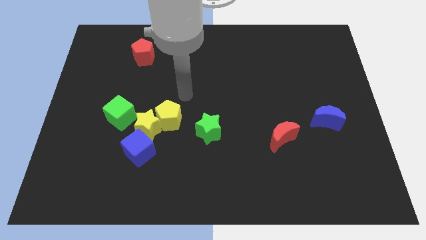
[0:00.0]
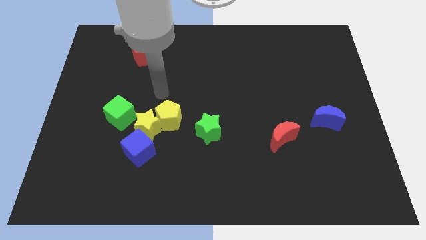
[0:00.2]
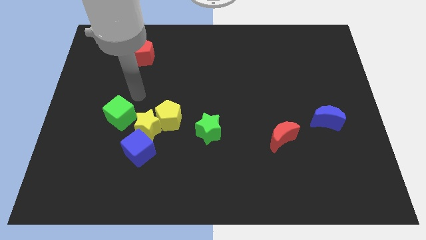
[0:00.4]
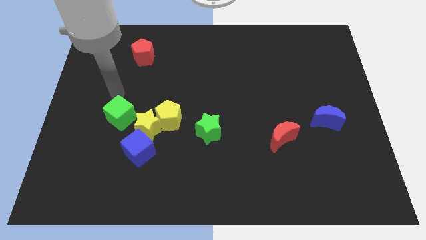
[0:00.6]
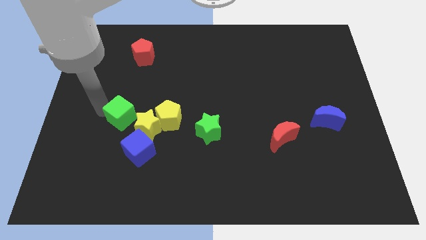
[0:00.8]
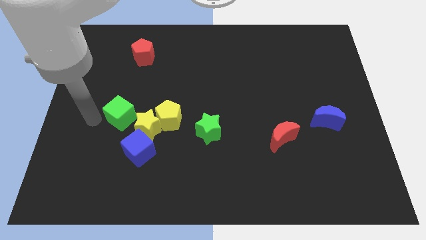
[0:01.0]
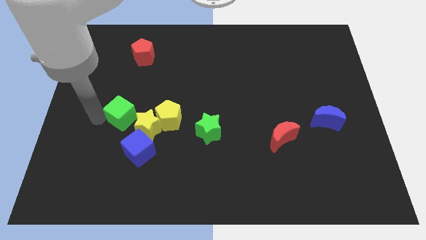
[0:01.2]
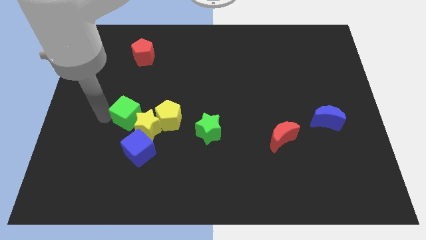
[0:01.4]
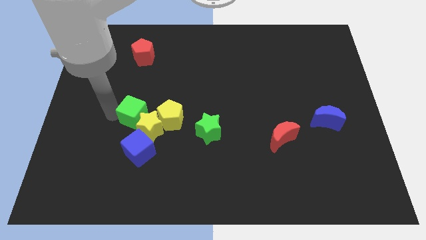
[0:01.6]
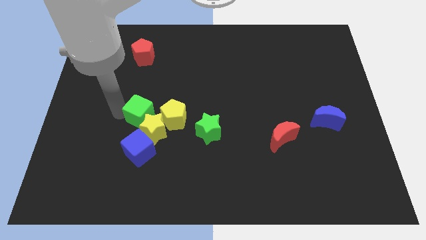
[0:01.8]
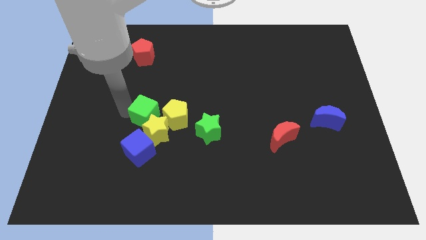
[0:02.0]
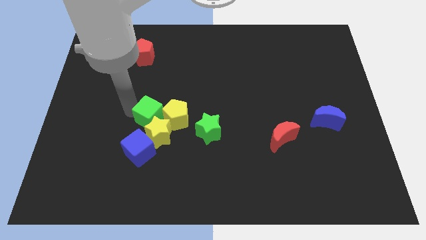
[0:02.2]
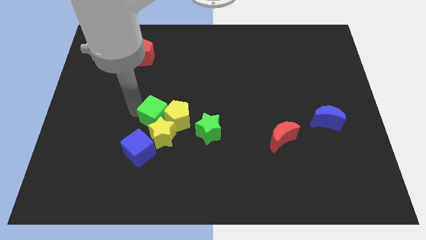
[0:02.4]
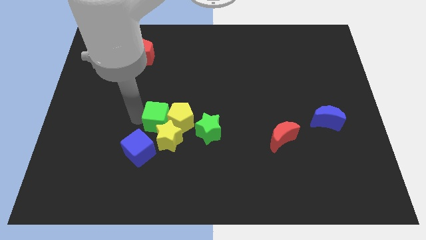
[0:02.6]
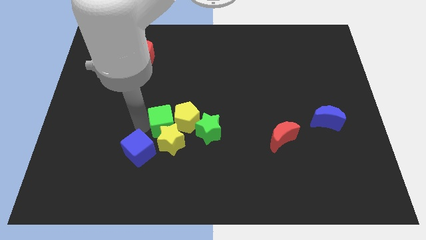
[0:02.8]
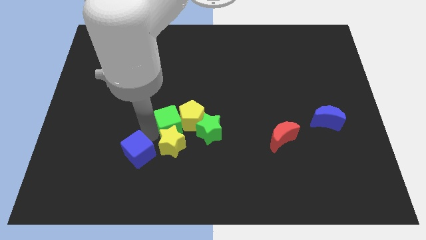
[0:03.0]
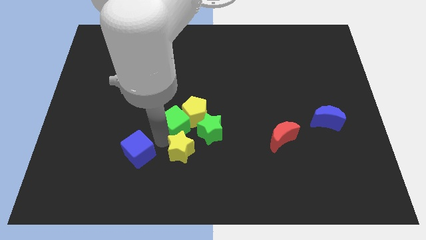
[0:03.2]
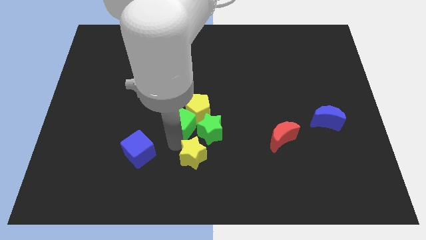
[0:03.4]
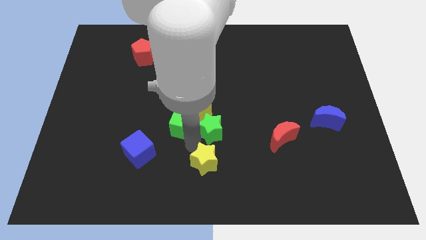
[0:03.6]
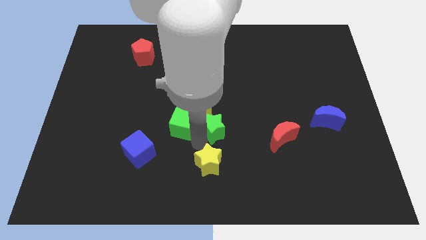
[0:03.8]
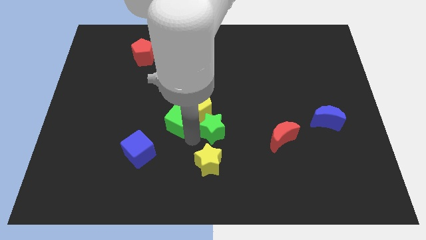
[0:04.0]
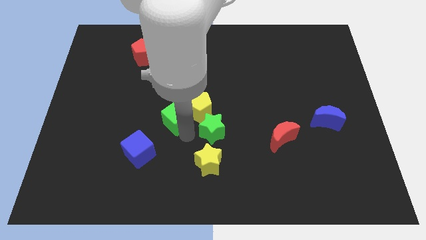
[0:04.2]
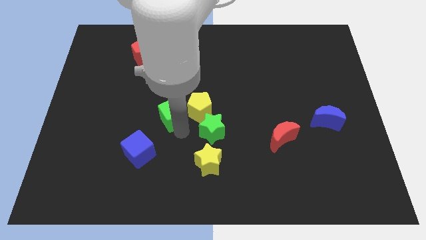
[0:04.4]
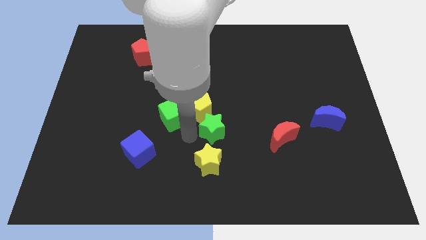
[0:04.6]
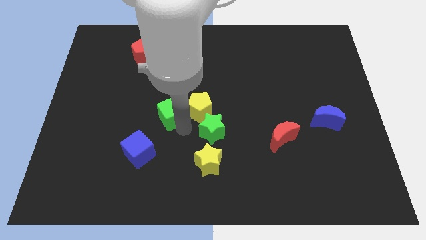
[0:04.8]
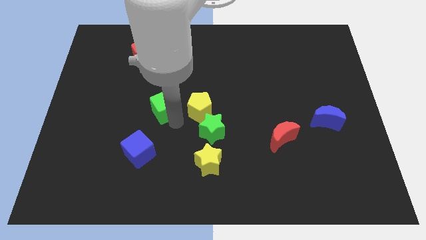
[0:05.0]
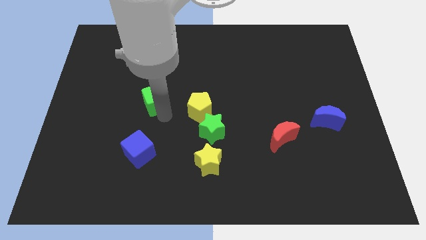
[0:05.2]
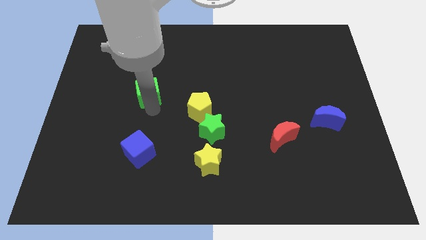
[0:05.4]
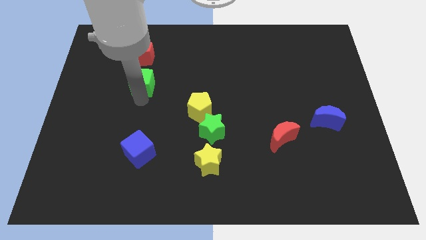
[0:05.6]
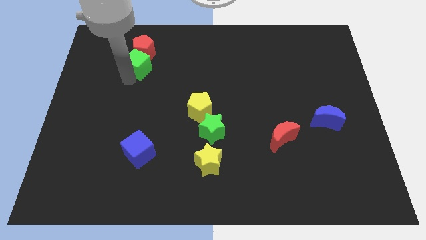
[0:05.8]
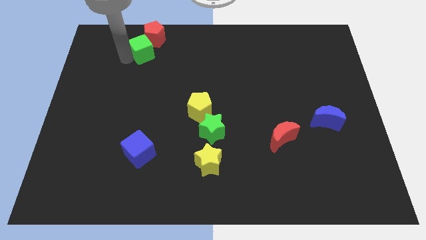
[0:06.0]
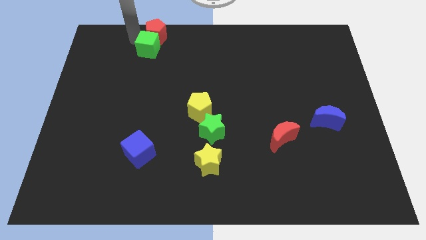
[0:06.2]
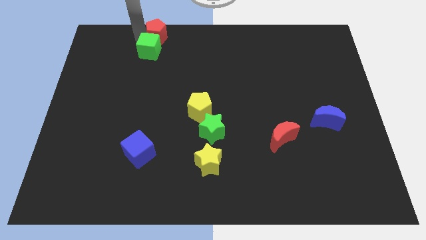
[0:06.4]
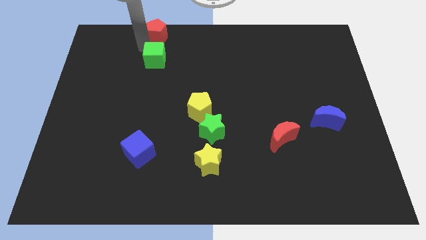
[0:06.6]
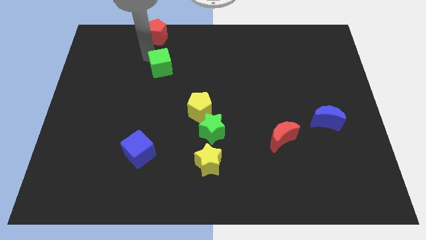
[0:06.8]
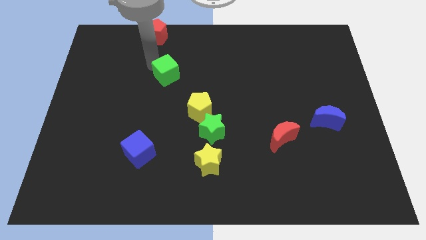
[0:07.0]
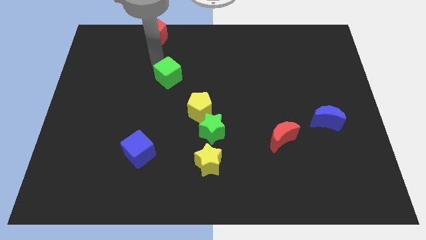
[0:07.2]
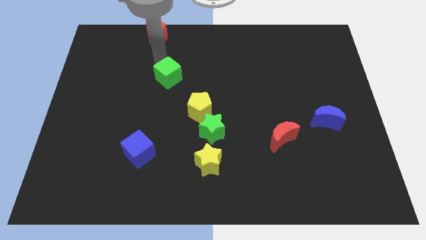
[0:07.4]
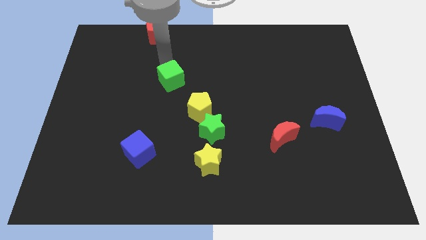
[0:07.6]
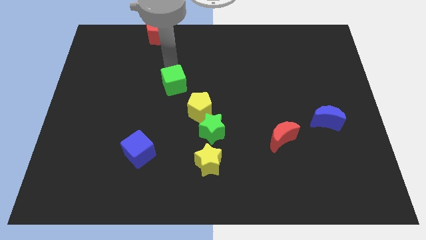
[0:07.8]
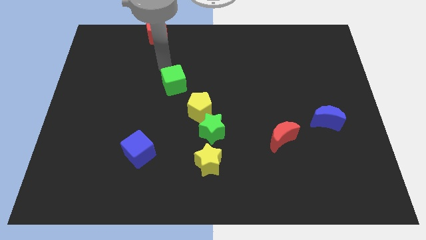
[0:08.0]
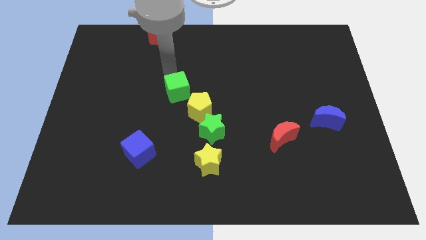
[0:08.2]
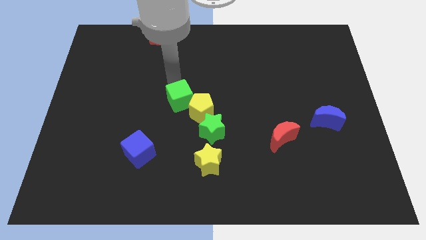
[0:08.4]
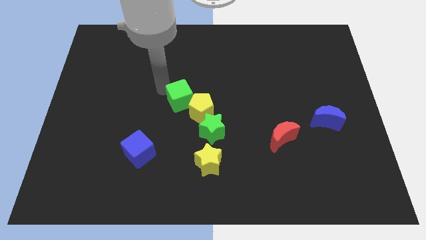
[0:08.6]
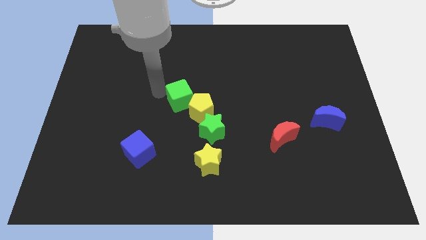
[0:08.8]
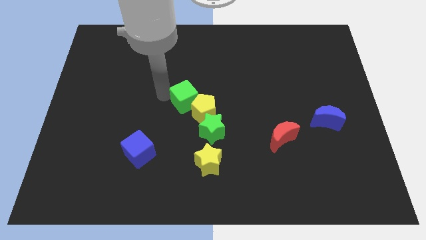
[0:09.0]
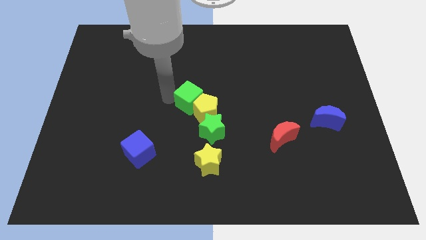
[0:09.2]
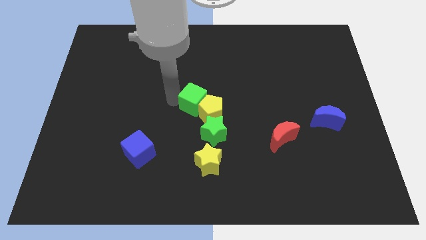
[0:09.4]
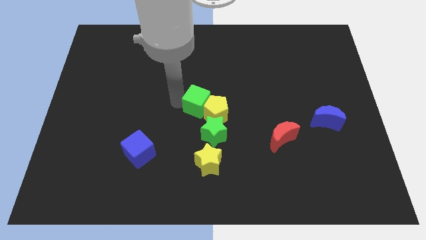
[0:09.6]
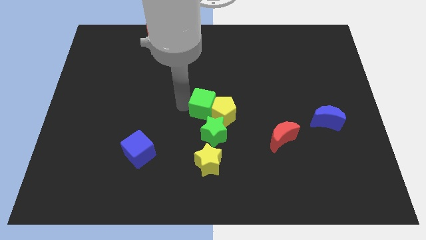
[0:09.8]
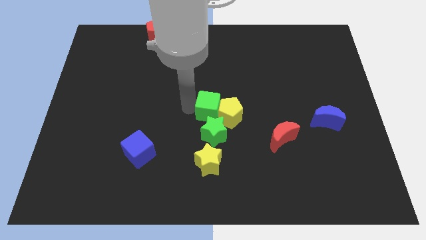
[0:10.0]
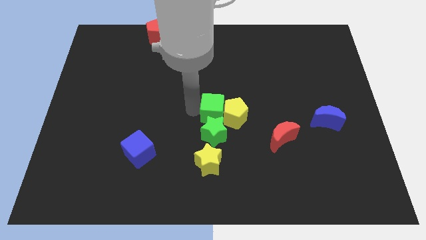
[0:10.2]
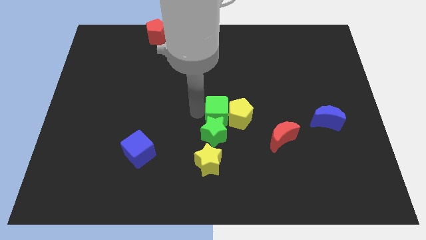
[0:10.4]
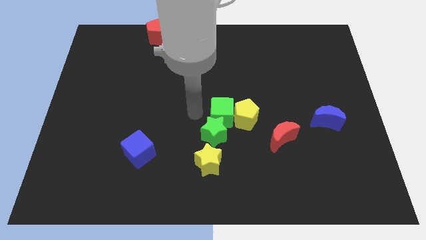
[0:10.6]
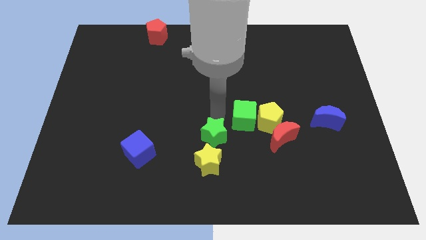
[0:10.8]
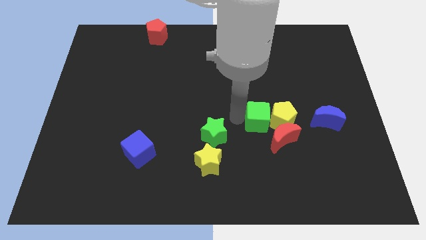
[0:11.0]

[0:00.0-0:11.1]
put the green cube to the left side of the blue moon

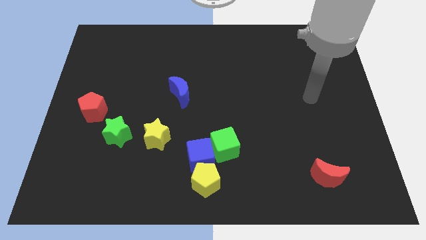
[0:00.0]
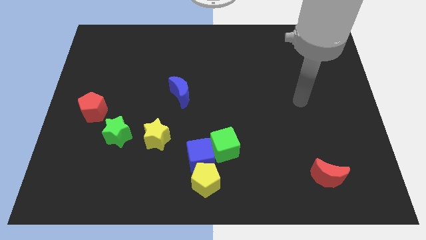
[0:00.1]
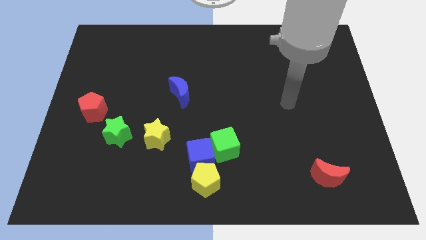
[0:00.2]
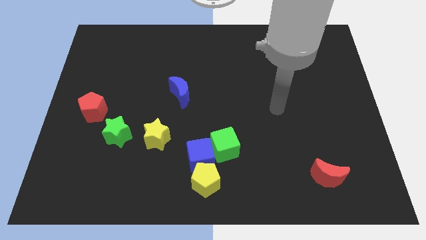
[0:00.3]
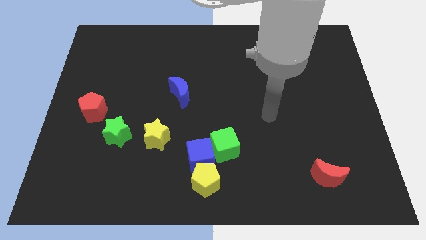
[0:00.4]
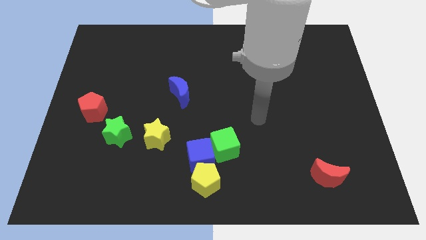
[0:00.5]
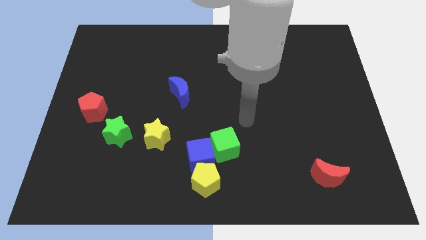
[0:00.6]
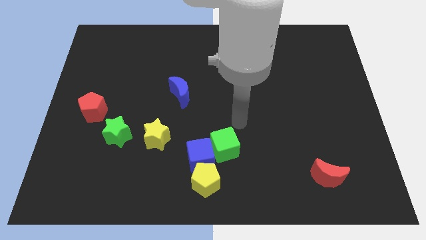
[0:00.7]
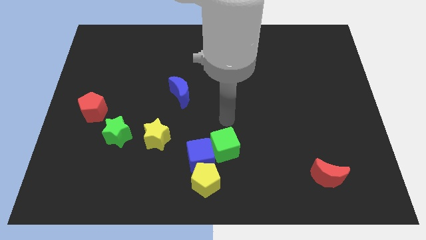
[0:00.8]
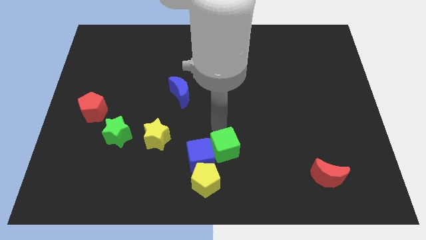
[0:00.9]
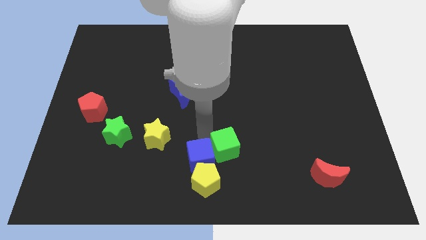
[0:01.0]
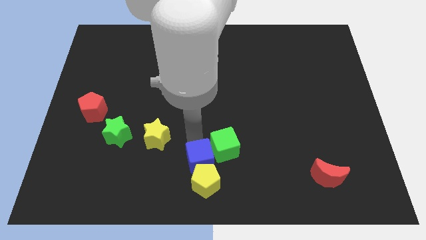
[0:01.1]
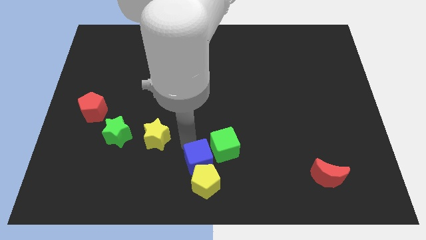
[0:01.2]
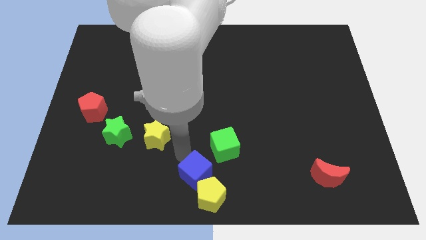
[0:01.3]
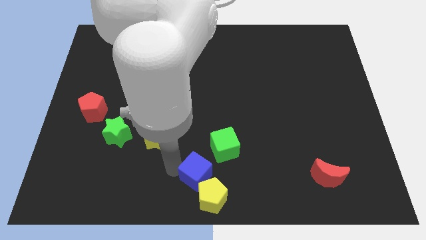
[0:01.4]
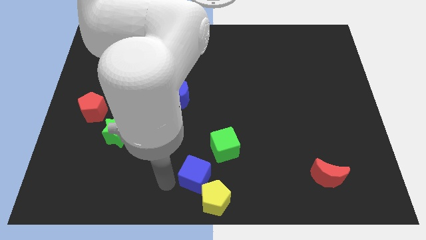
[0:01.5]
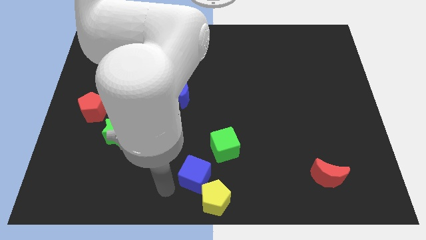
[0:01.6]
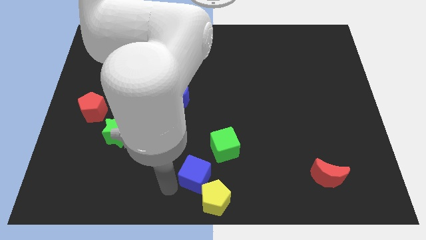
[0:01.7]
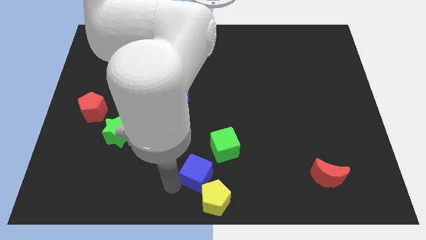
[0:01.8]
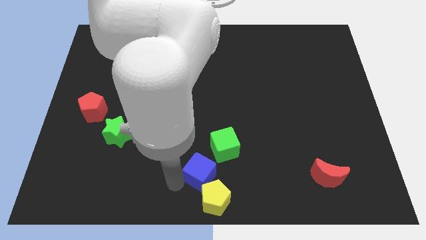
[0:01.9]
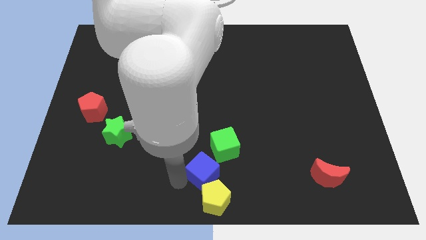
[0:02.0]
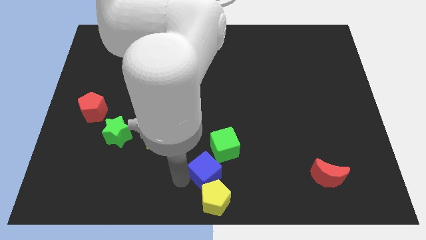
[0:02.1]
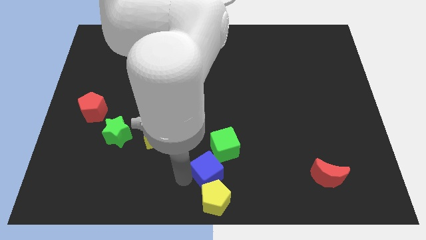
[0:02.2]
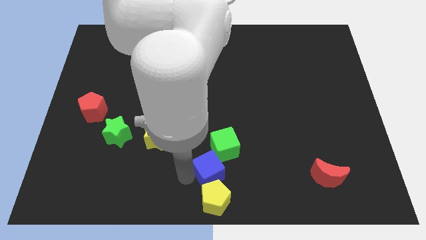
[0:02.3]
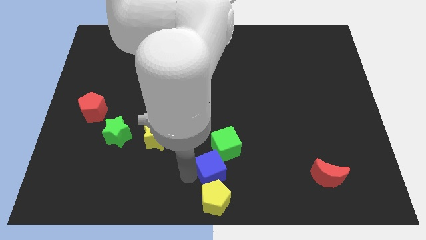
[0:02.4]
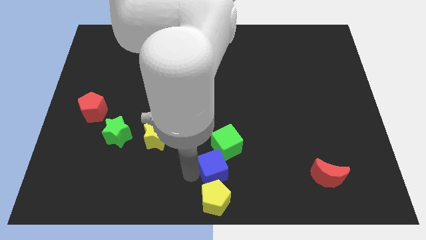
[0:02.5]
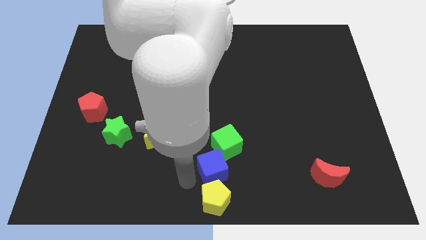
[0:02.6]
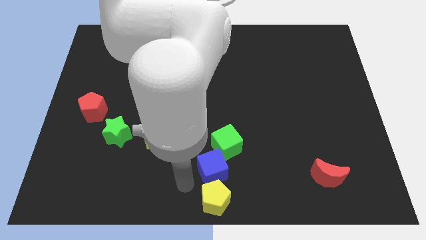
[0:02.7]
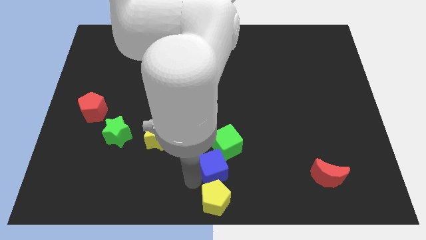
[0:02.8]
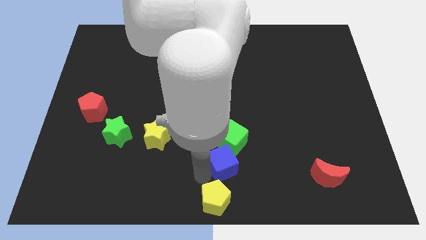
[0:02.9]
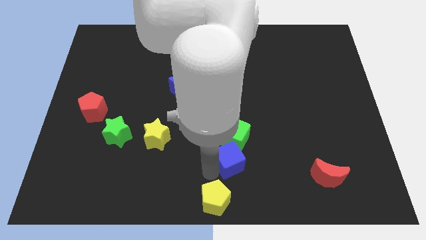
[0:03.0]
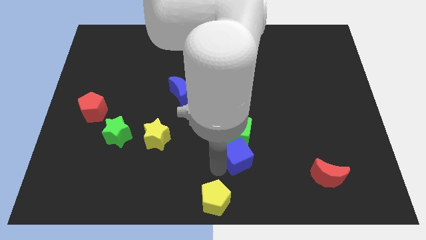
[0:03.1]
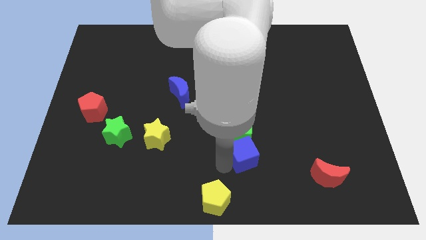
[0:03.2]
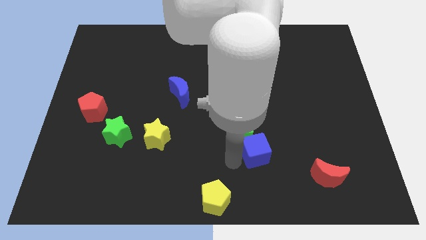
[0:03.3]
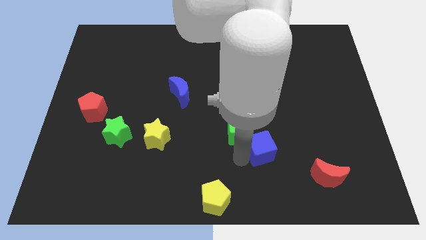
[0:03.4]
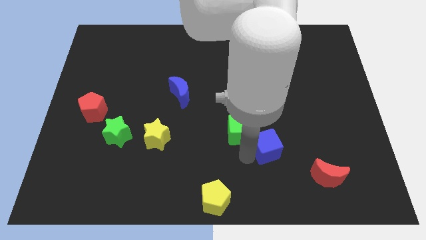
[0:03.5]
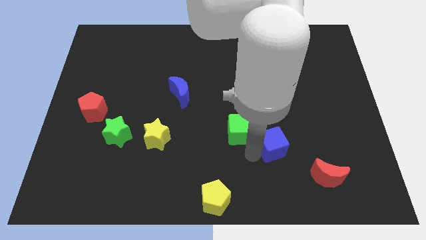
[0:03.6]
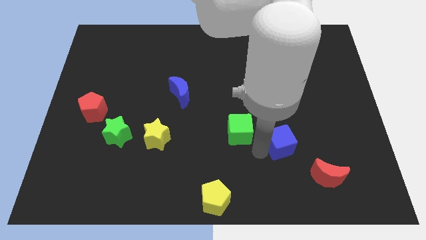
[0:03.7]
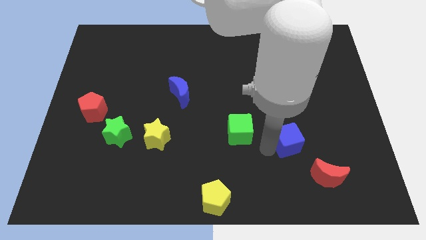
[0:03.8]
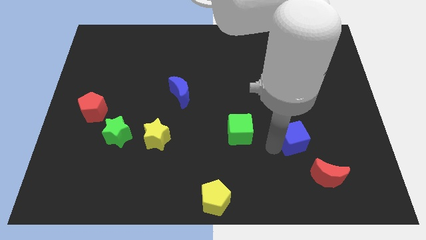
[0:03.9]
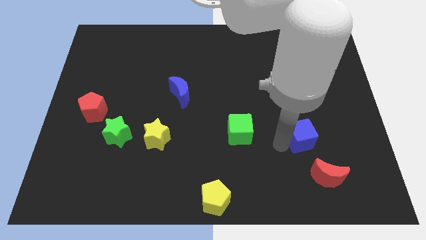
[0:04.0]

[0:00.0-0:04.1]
move the blue cube above the red moon
